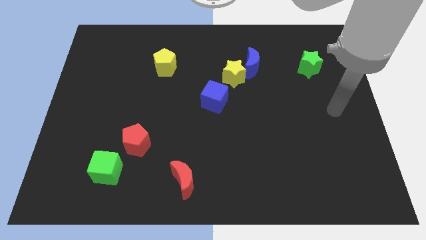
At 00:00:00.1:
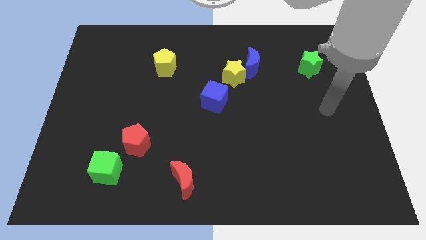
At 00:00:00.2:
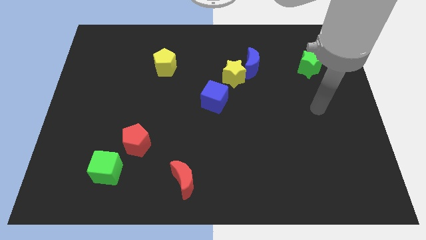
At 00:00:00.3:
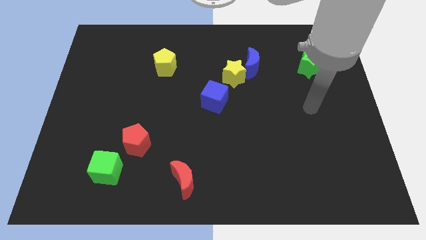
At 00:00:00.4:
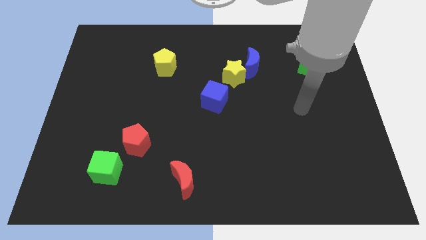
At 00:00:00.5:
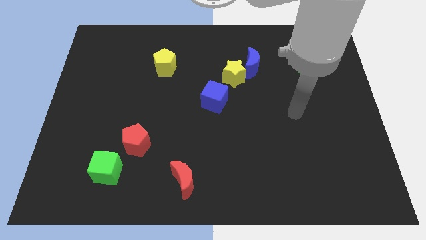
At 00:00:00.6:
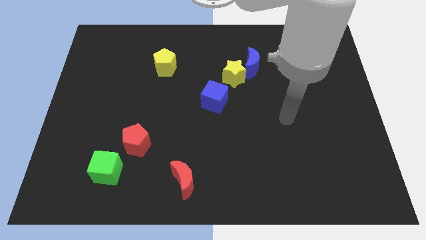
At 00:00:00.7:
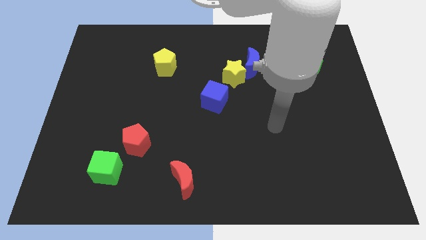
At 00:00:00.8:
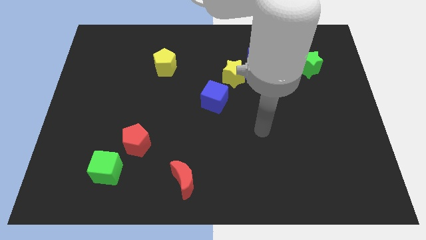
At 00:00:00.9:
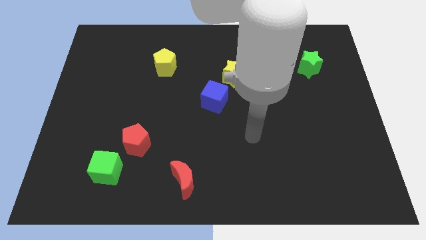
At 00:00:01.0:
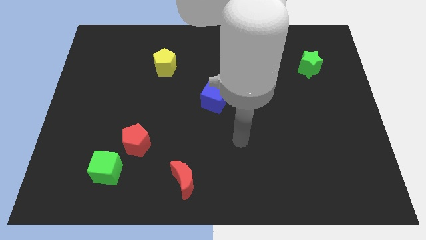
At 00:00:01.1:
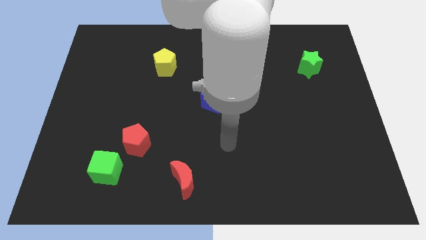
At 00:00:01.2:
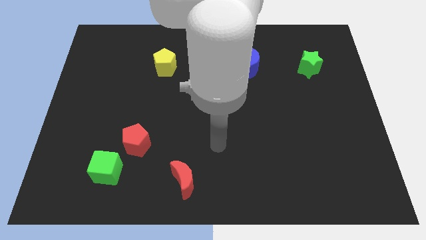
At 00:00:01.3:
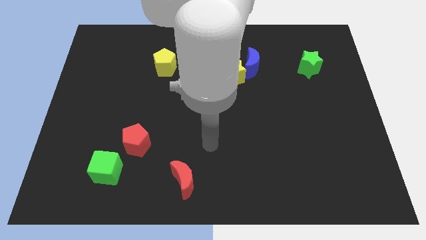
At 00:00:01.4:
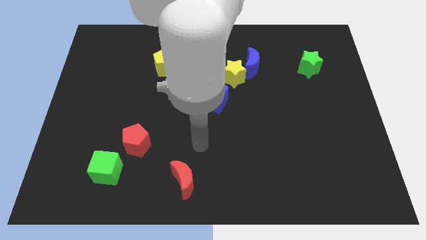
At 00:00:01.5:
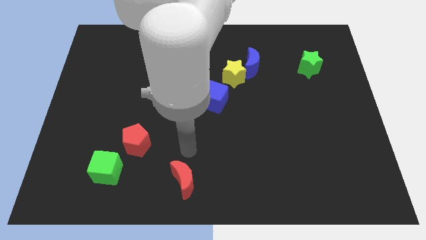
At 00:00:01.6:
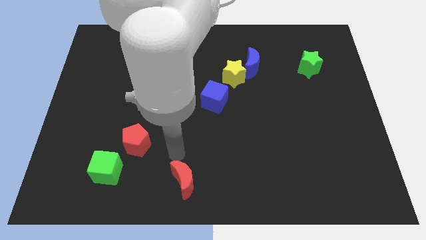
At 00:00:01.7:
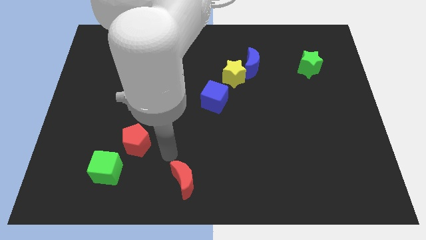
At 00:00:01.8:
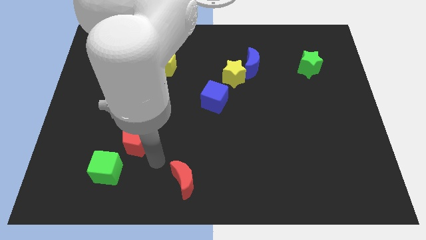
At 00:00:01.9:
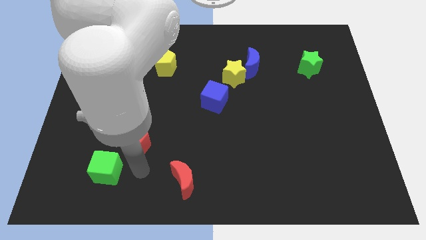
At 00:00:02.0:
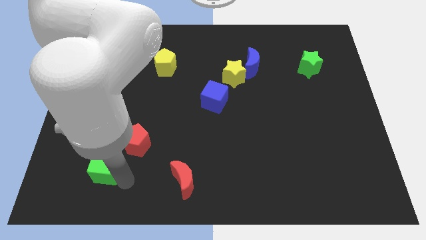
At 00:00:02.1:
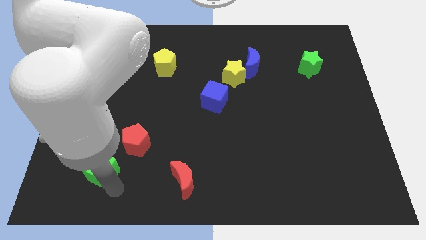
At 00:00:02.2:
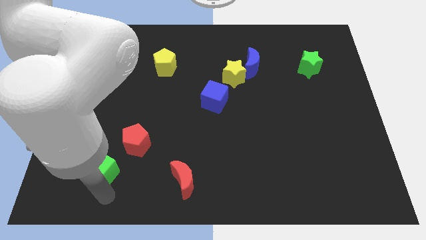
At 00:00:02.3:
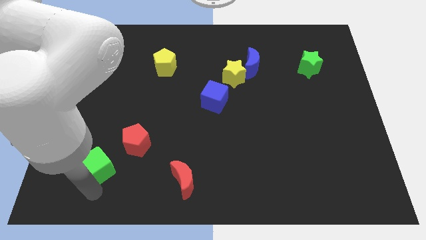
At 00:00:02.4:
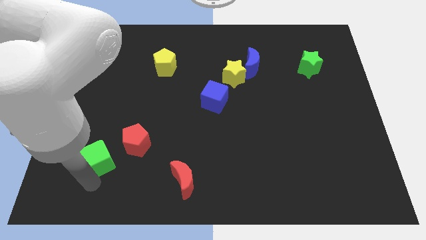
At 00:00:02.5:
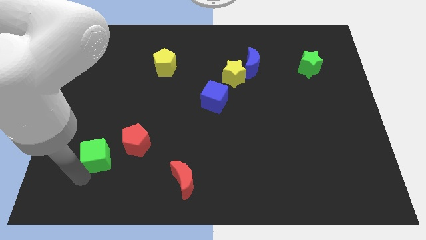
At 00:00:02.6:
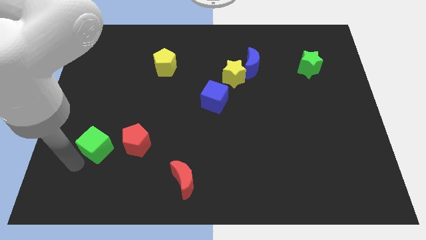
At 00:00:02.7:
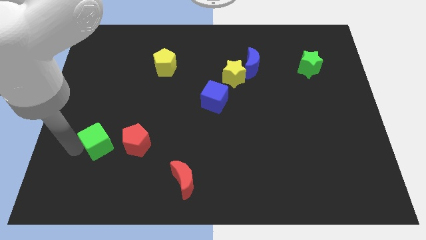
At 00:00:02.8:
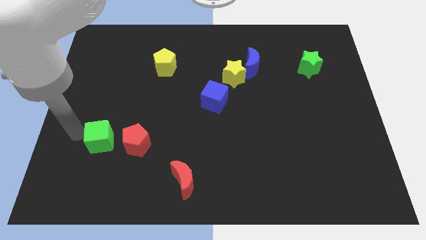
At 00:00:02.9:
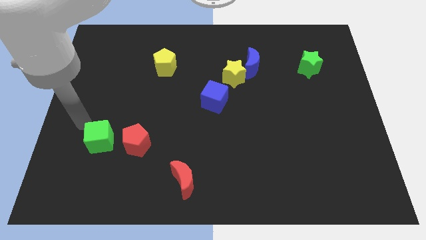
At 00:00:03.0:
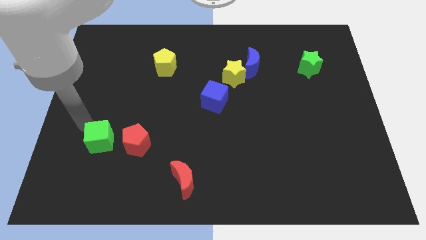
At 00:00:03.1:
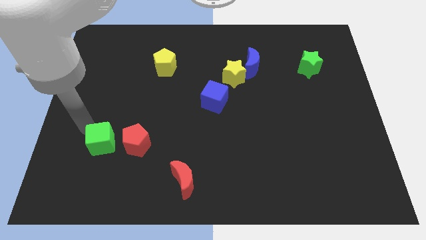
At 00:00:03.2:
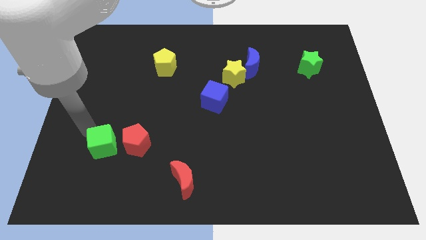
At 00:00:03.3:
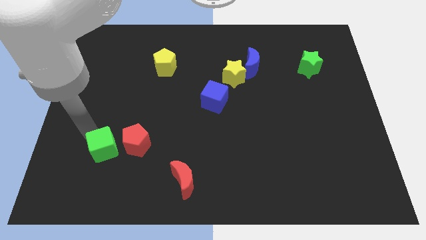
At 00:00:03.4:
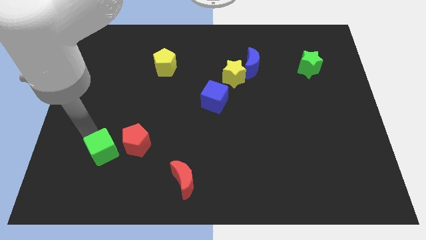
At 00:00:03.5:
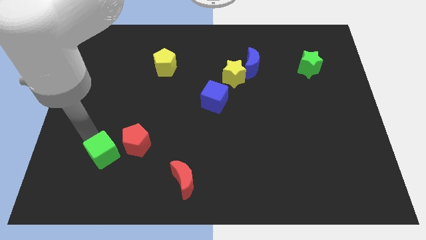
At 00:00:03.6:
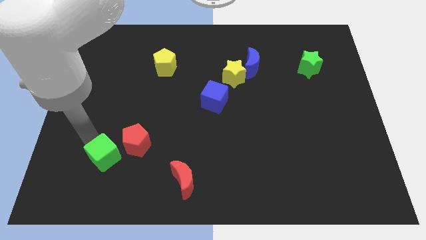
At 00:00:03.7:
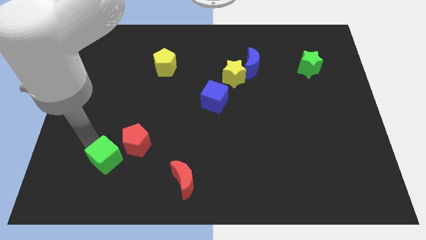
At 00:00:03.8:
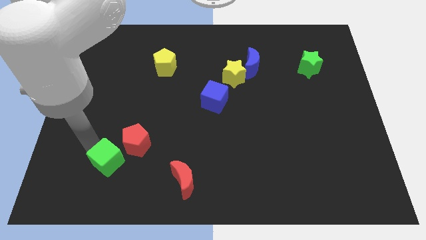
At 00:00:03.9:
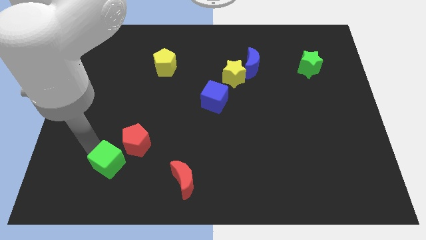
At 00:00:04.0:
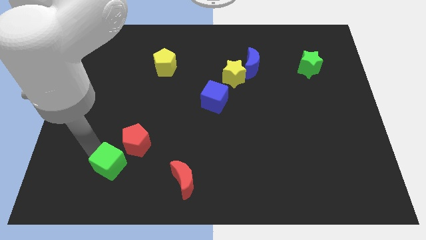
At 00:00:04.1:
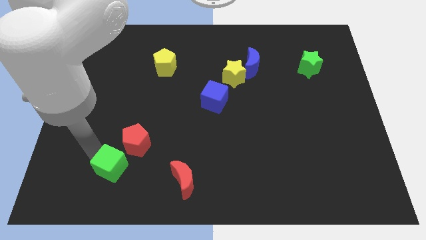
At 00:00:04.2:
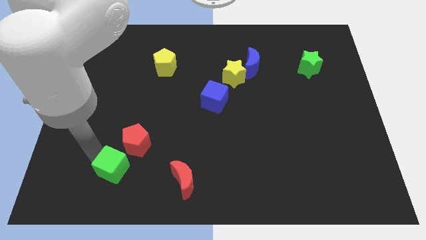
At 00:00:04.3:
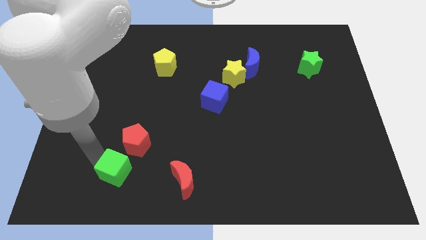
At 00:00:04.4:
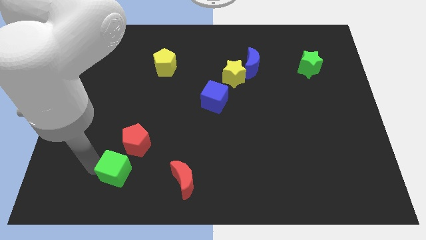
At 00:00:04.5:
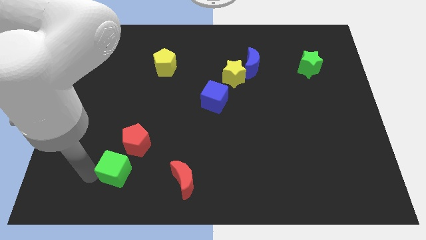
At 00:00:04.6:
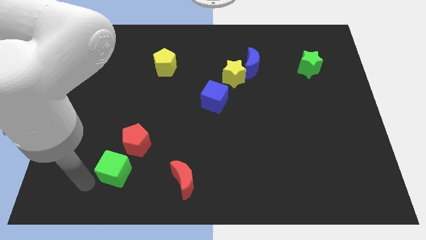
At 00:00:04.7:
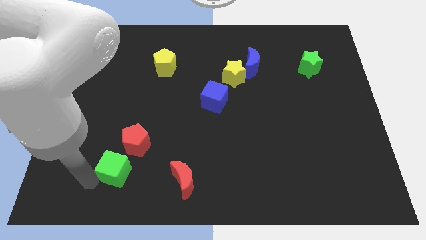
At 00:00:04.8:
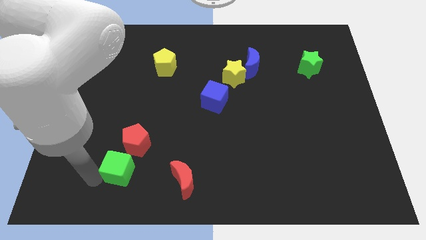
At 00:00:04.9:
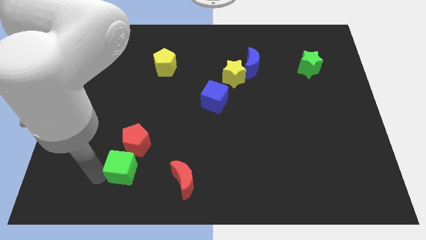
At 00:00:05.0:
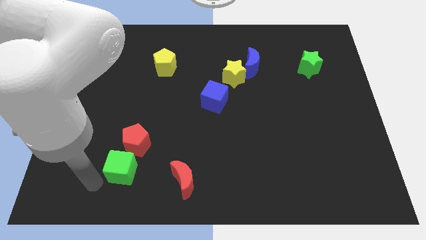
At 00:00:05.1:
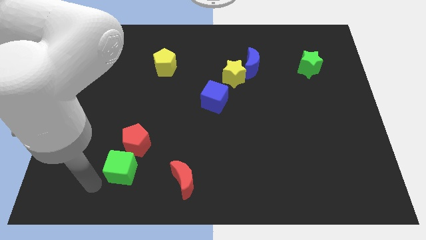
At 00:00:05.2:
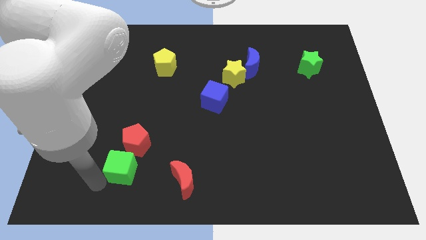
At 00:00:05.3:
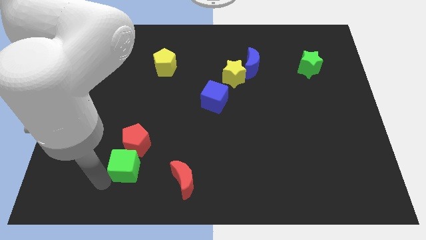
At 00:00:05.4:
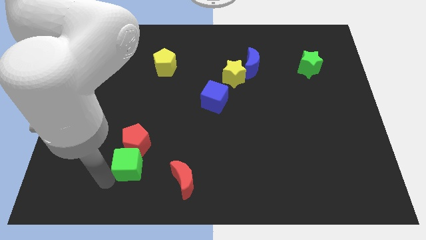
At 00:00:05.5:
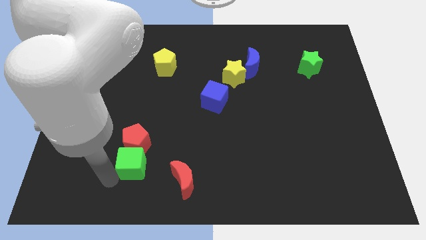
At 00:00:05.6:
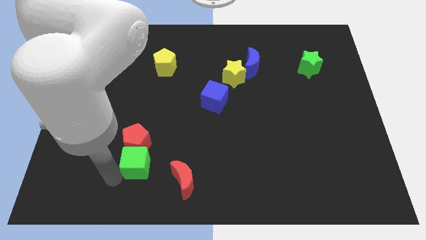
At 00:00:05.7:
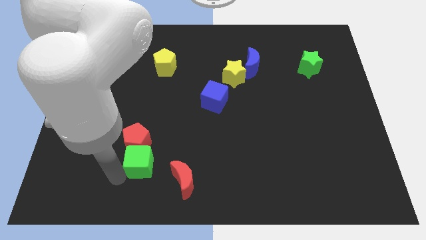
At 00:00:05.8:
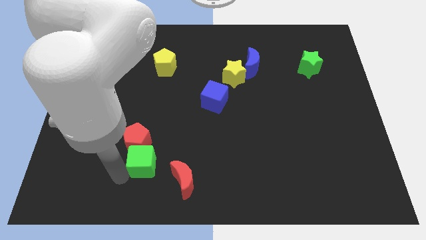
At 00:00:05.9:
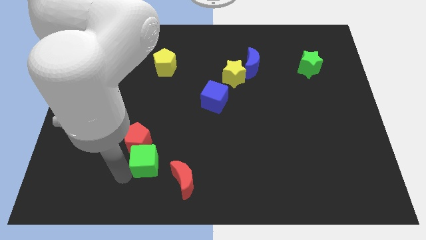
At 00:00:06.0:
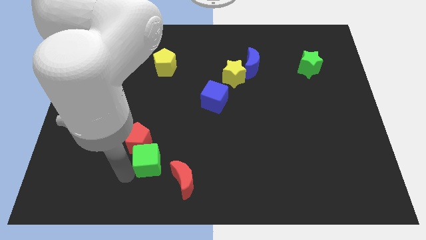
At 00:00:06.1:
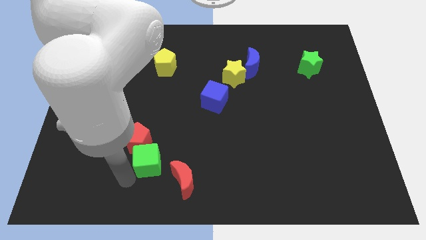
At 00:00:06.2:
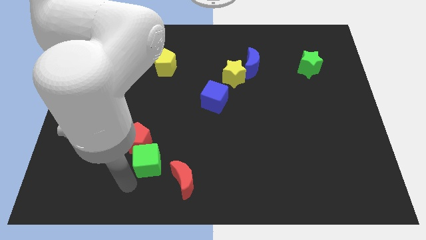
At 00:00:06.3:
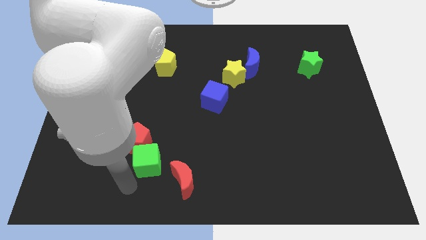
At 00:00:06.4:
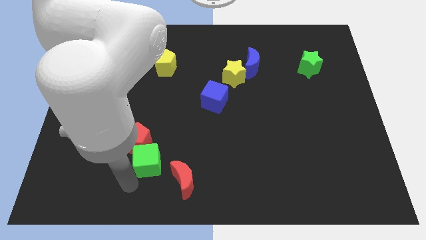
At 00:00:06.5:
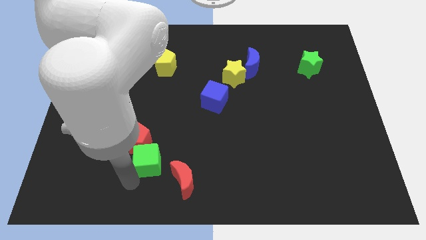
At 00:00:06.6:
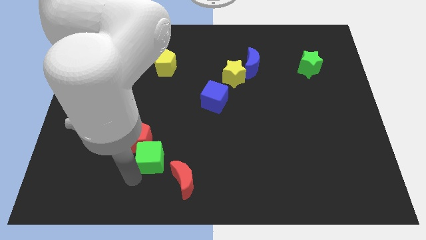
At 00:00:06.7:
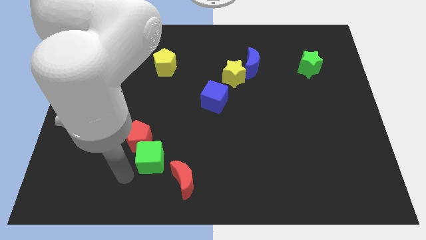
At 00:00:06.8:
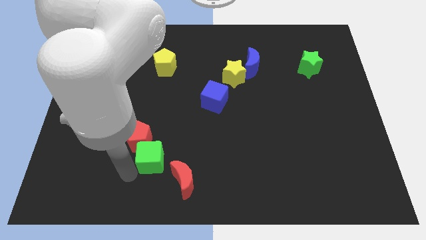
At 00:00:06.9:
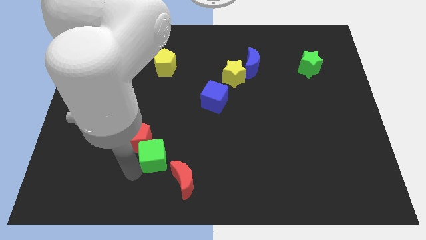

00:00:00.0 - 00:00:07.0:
put the green cube just right of the red pentagon
